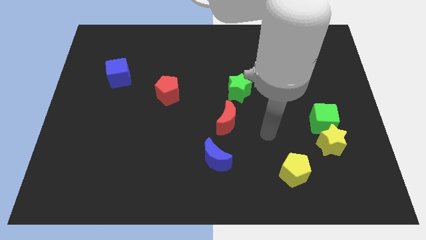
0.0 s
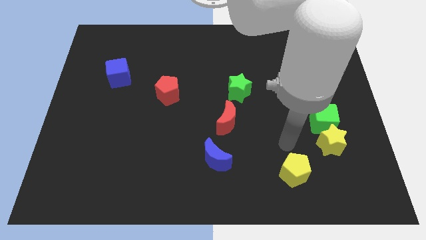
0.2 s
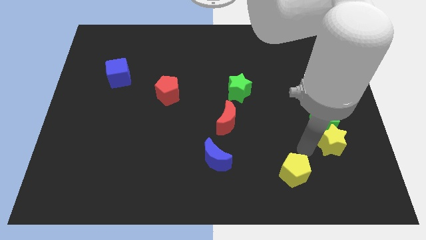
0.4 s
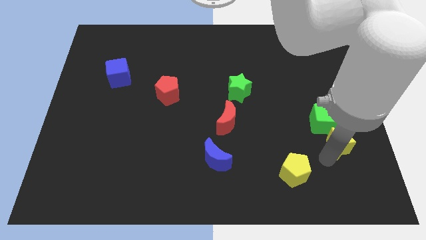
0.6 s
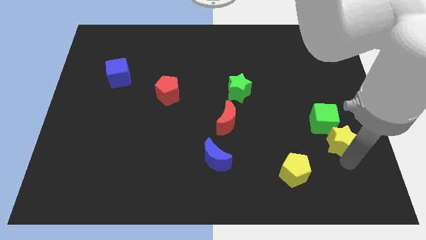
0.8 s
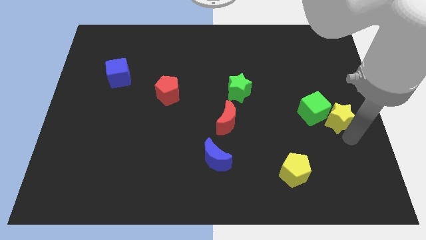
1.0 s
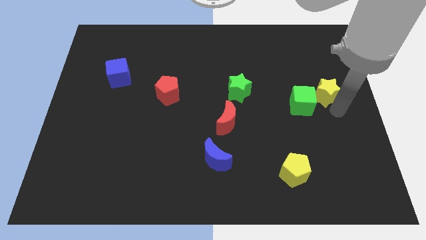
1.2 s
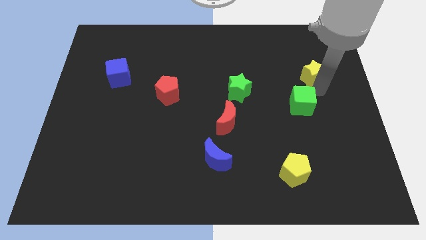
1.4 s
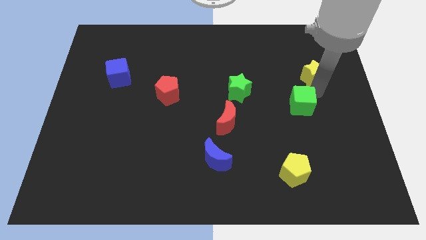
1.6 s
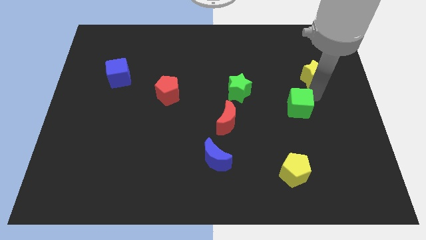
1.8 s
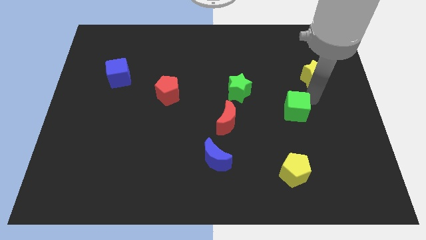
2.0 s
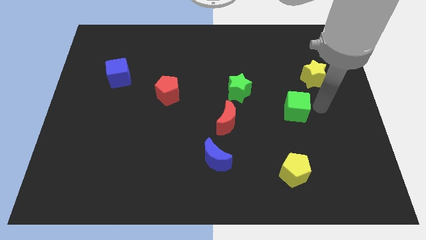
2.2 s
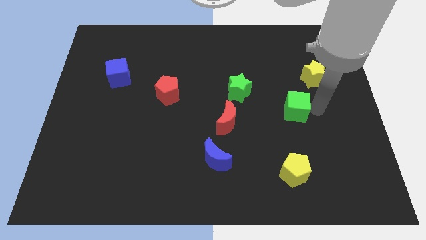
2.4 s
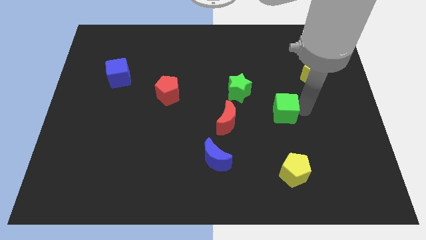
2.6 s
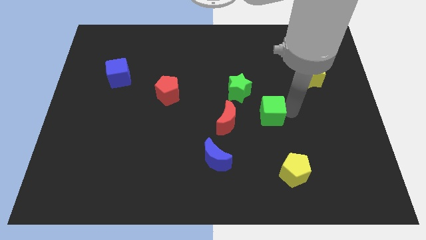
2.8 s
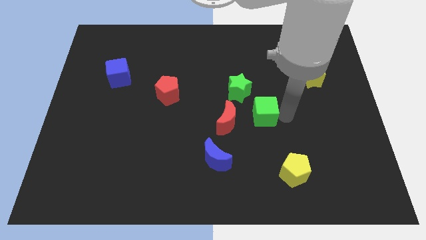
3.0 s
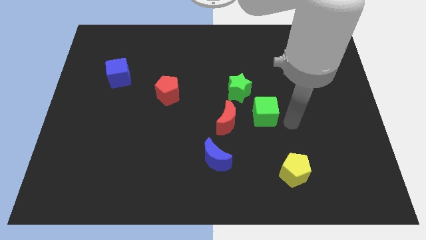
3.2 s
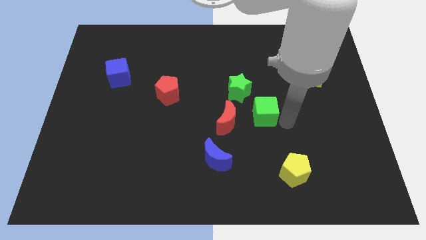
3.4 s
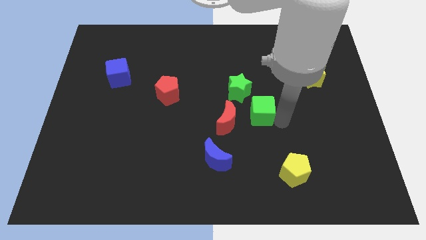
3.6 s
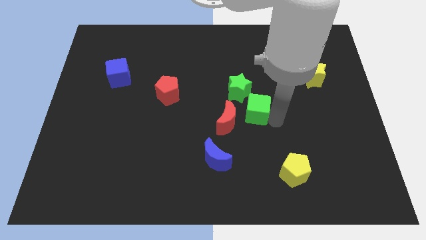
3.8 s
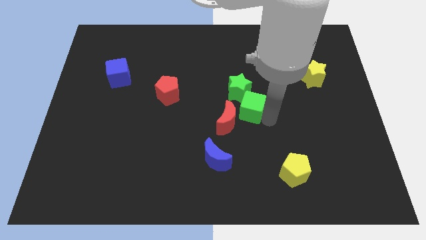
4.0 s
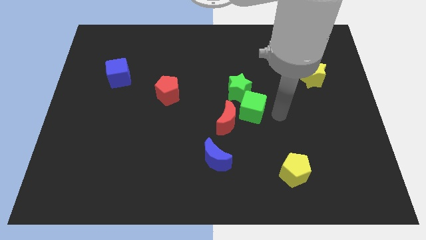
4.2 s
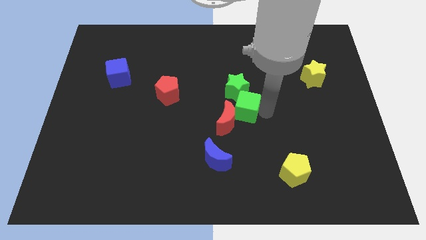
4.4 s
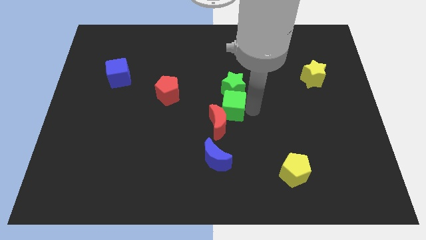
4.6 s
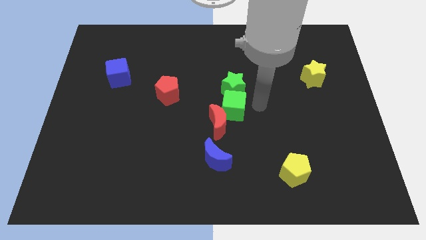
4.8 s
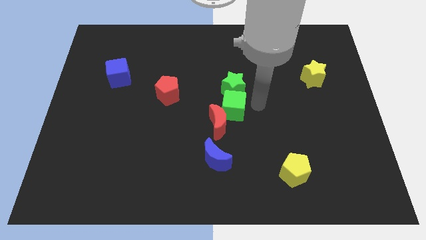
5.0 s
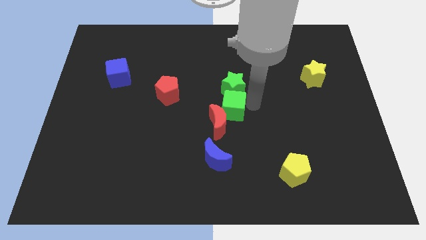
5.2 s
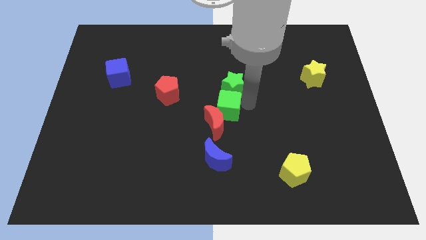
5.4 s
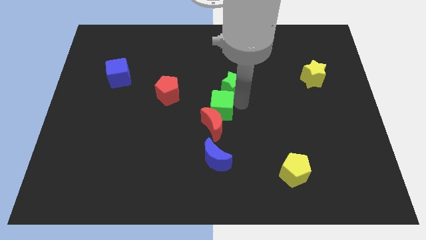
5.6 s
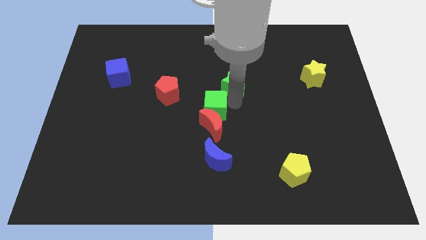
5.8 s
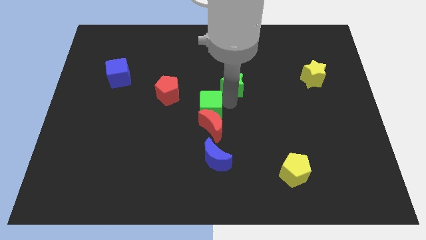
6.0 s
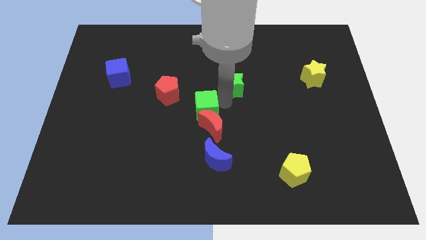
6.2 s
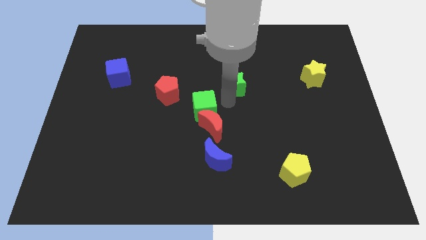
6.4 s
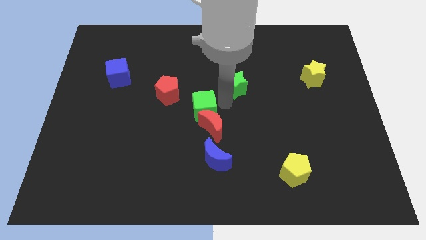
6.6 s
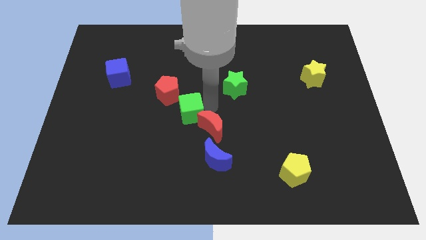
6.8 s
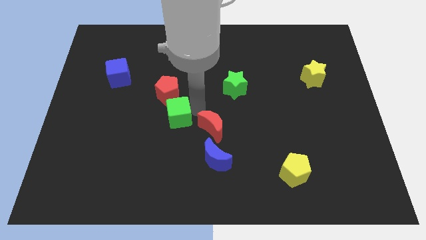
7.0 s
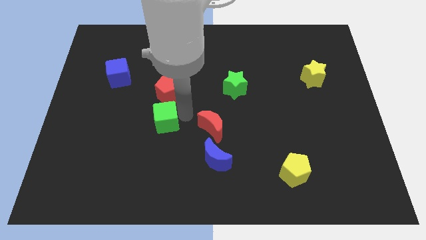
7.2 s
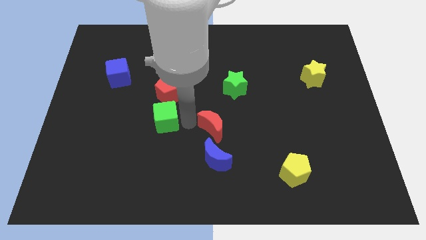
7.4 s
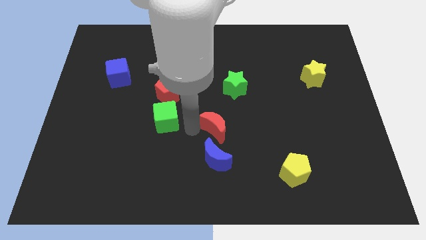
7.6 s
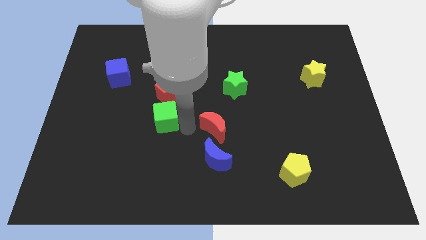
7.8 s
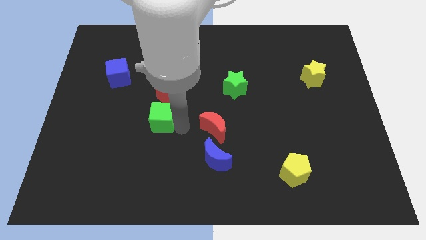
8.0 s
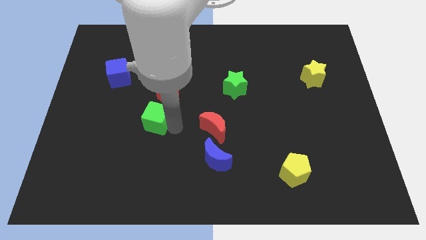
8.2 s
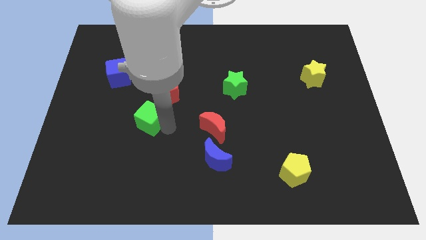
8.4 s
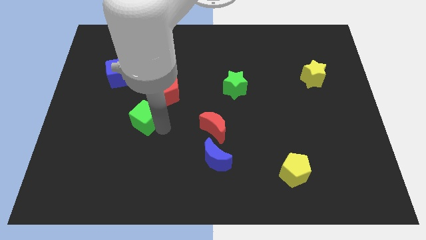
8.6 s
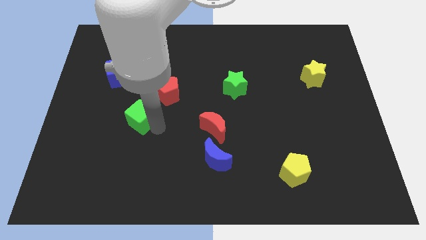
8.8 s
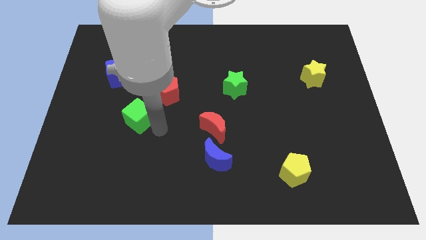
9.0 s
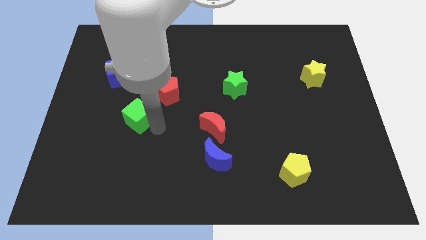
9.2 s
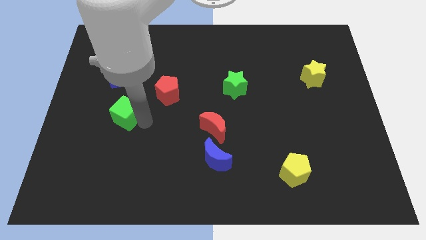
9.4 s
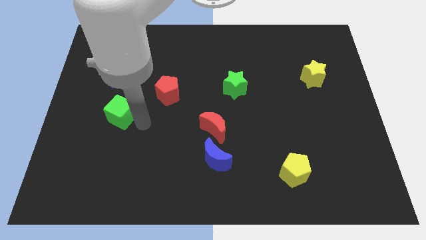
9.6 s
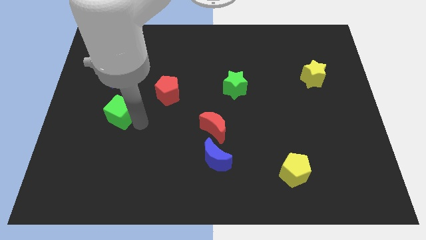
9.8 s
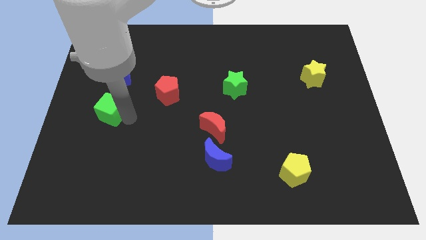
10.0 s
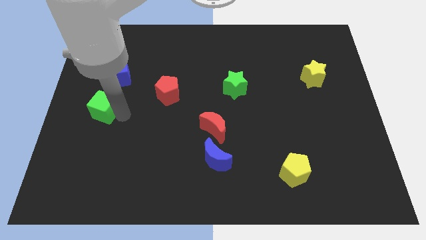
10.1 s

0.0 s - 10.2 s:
move the green cube to the center left
